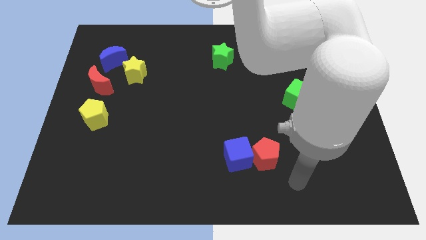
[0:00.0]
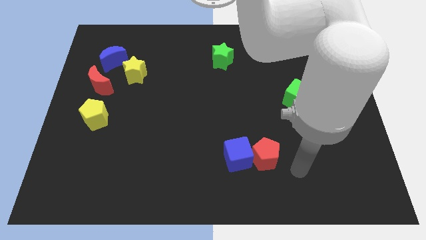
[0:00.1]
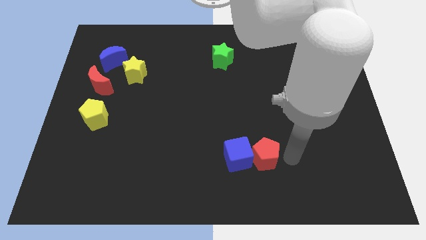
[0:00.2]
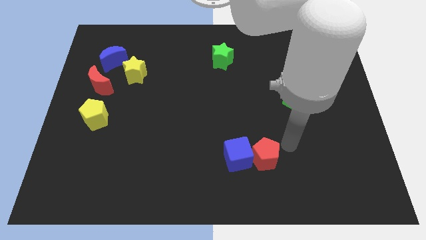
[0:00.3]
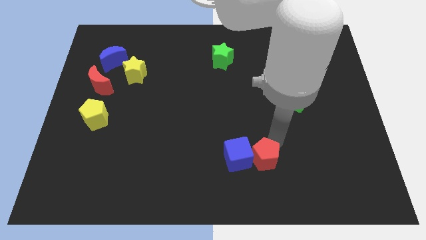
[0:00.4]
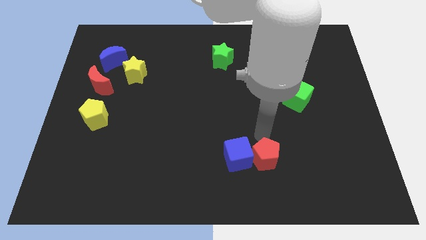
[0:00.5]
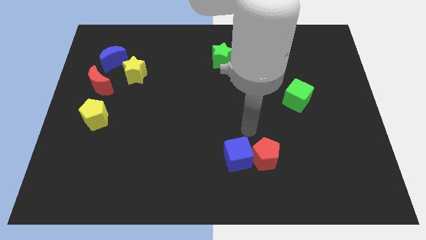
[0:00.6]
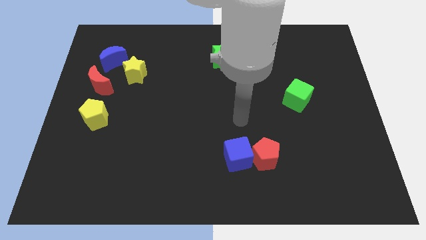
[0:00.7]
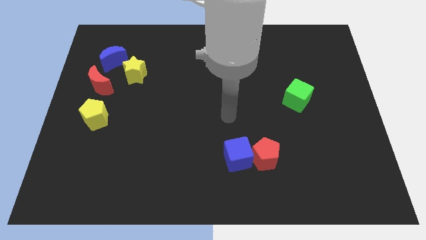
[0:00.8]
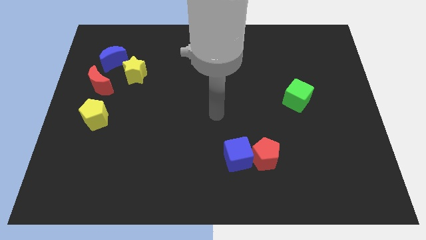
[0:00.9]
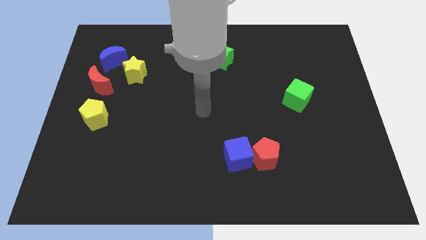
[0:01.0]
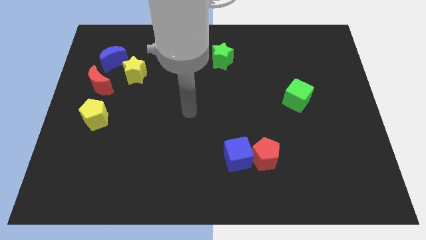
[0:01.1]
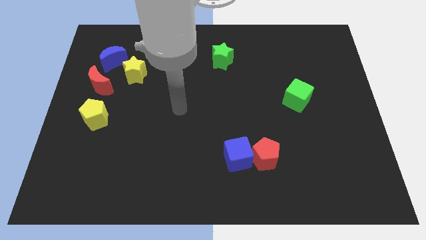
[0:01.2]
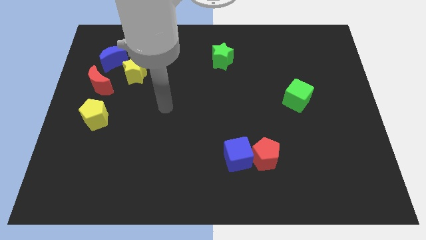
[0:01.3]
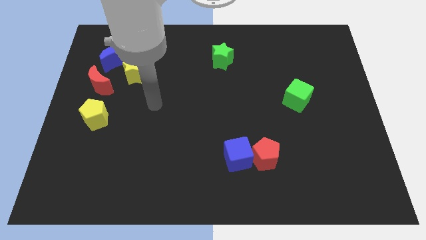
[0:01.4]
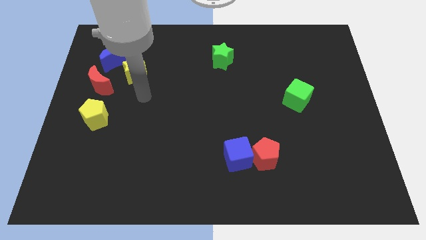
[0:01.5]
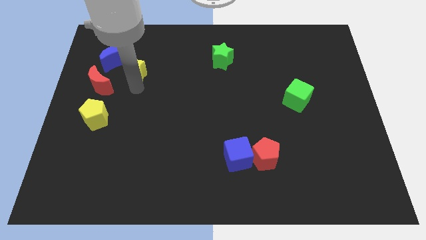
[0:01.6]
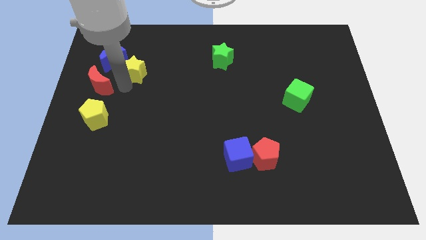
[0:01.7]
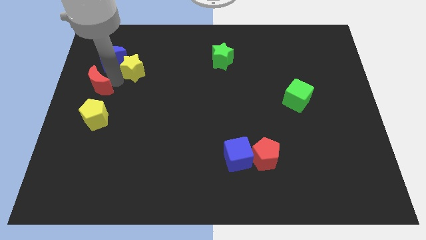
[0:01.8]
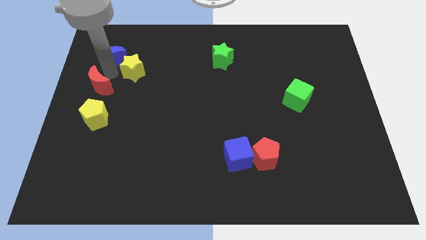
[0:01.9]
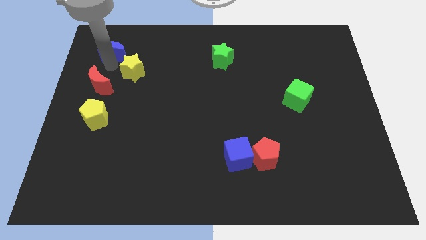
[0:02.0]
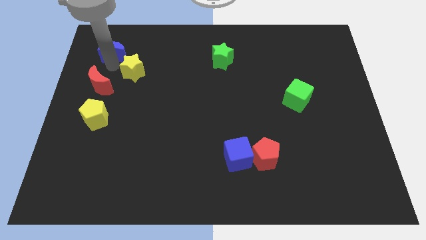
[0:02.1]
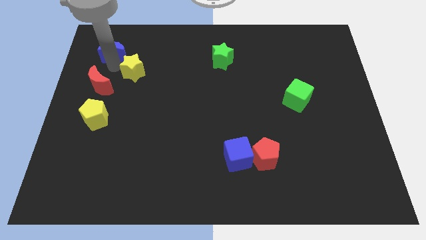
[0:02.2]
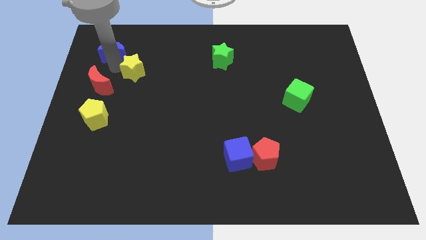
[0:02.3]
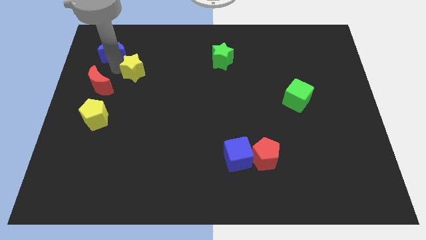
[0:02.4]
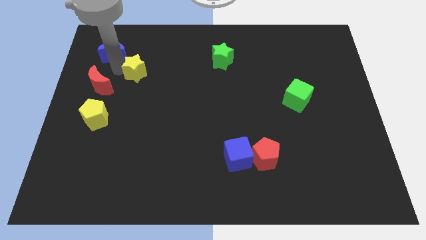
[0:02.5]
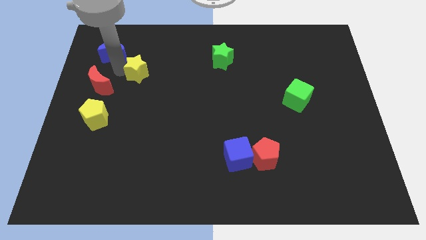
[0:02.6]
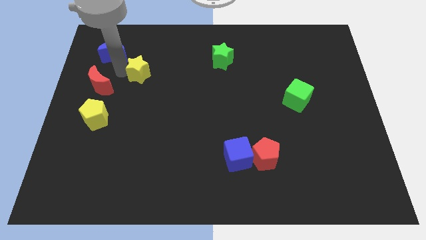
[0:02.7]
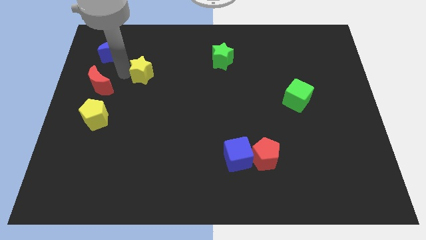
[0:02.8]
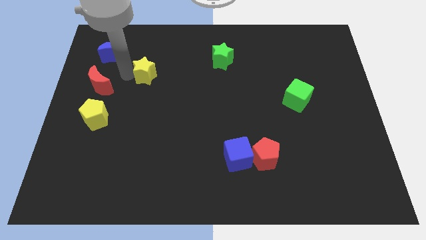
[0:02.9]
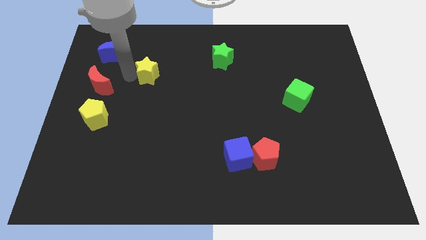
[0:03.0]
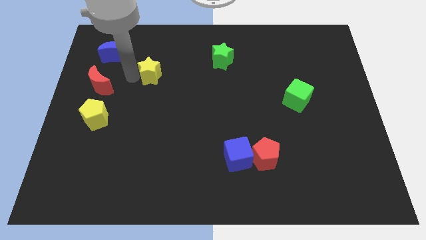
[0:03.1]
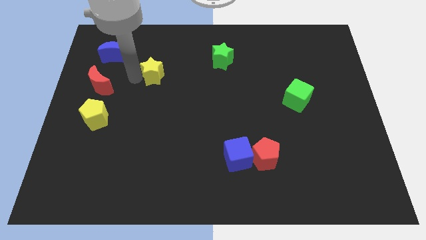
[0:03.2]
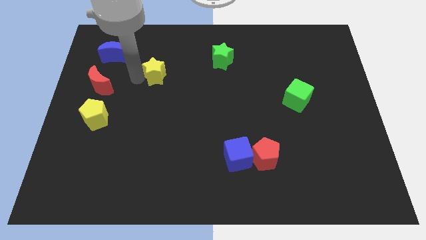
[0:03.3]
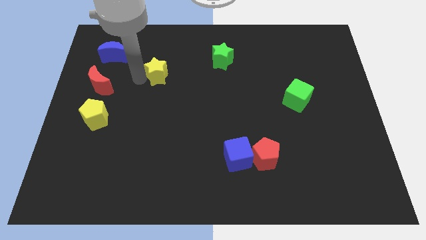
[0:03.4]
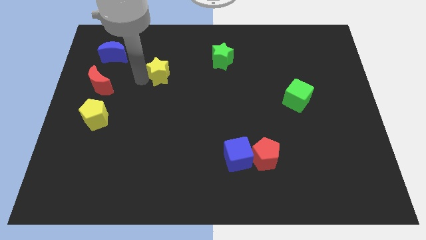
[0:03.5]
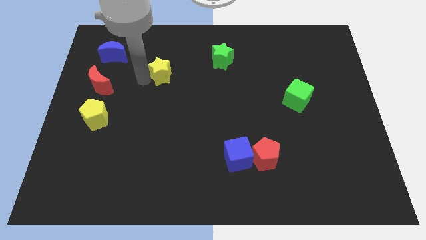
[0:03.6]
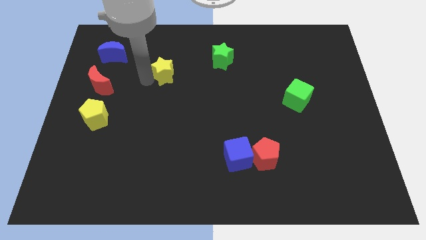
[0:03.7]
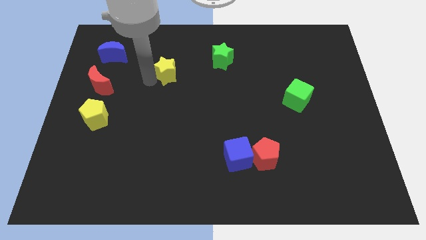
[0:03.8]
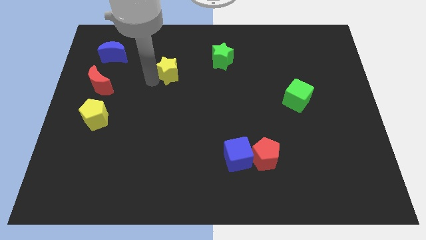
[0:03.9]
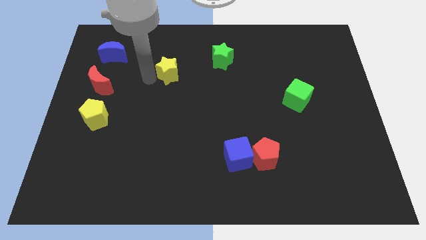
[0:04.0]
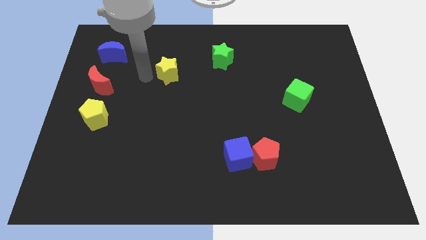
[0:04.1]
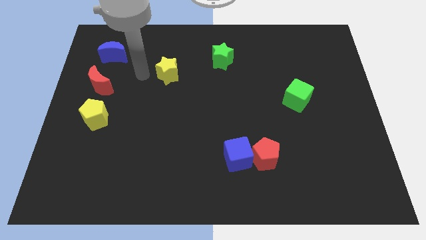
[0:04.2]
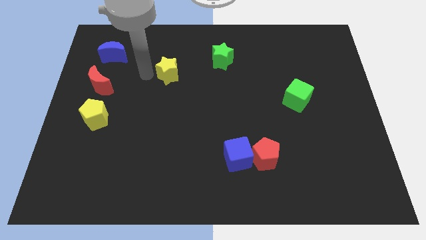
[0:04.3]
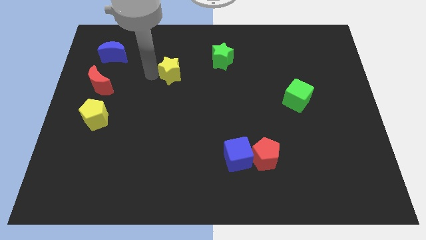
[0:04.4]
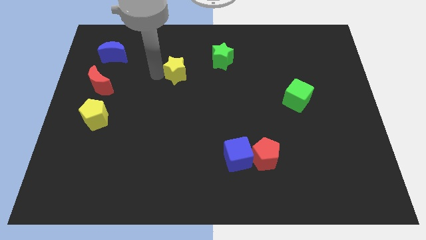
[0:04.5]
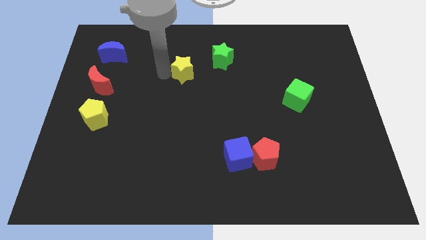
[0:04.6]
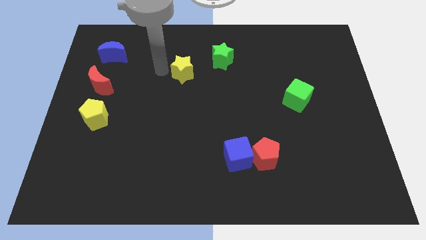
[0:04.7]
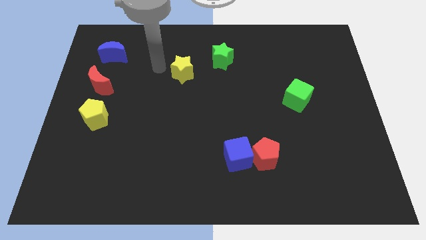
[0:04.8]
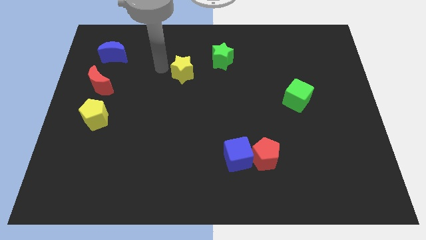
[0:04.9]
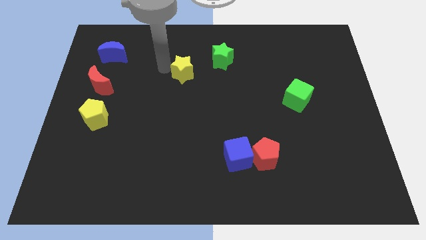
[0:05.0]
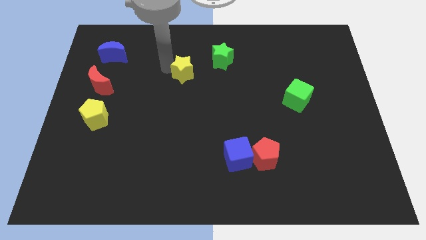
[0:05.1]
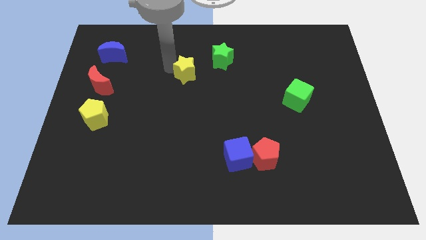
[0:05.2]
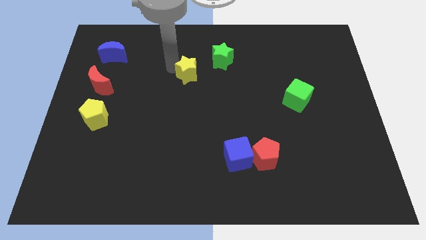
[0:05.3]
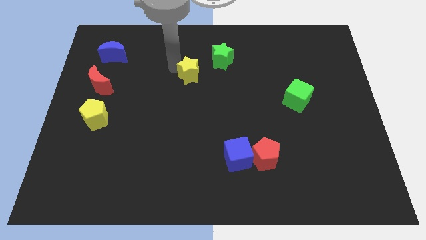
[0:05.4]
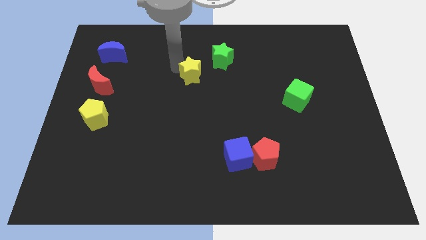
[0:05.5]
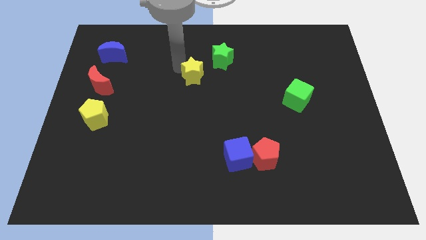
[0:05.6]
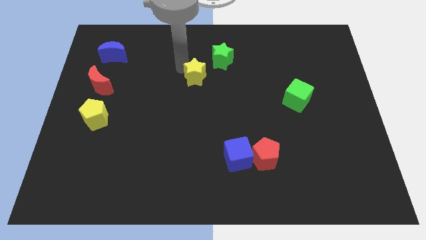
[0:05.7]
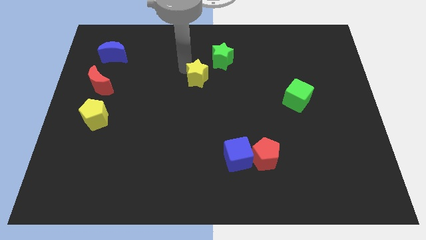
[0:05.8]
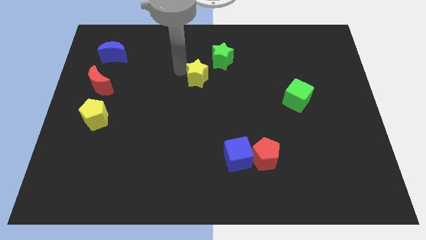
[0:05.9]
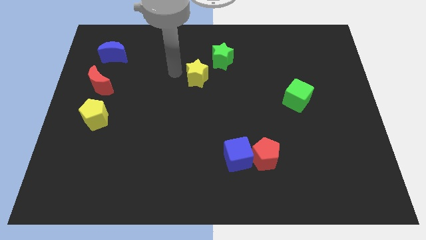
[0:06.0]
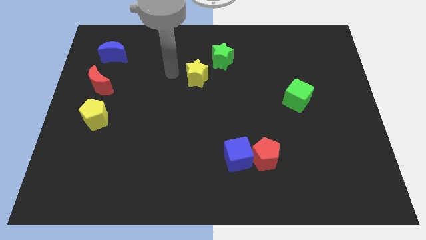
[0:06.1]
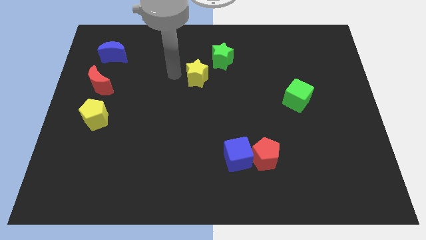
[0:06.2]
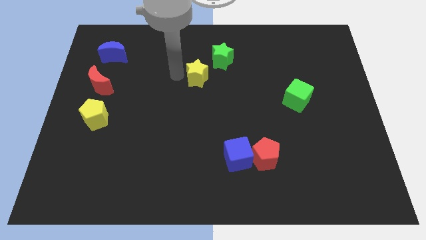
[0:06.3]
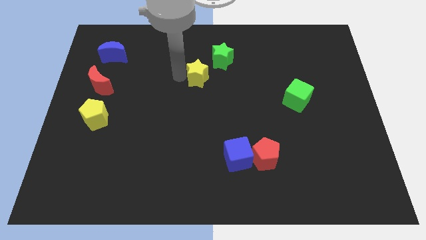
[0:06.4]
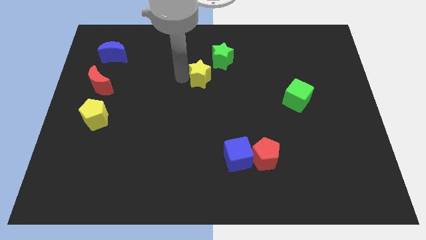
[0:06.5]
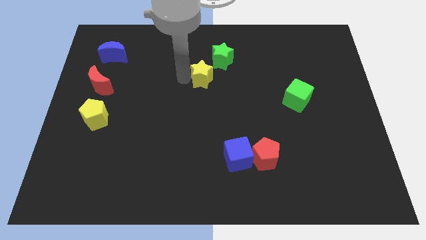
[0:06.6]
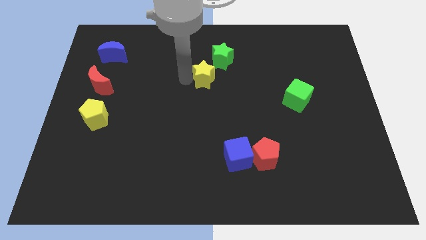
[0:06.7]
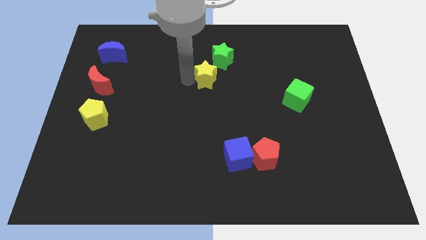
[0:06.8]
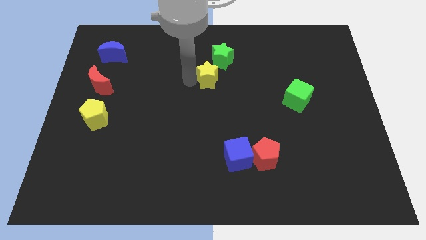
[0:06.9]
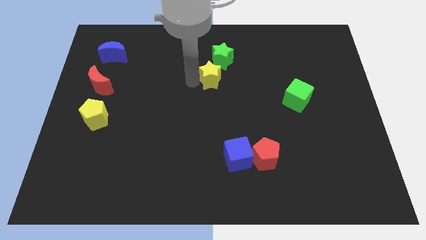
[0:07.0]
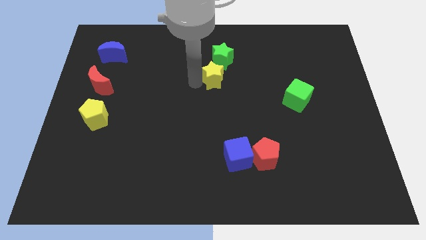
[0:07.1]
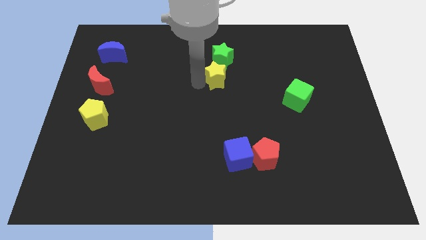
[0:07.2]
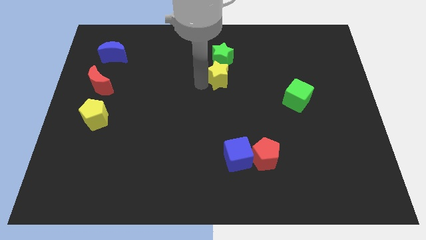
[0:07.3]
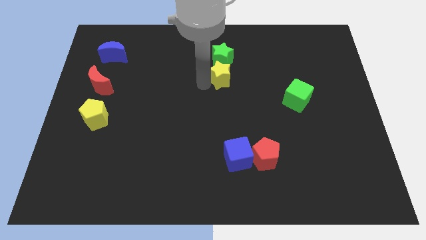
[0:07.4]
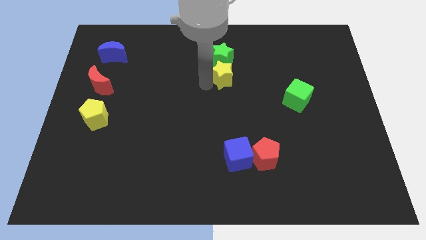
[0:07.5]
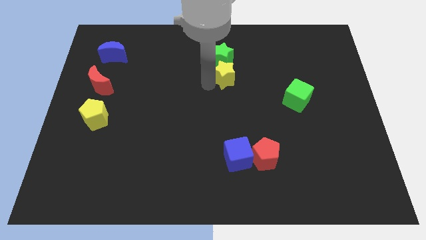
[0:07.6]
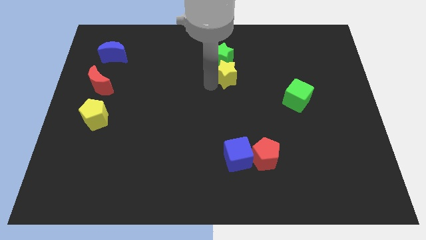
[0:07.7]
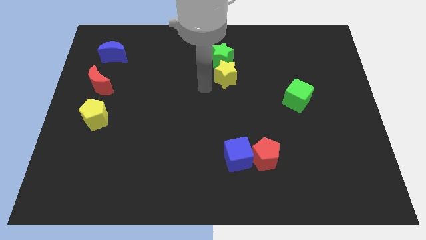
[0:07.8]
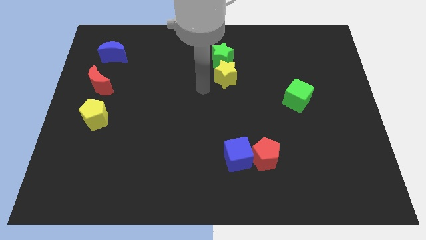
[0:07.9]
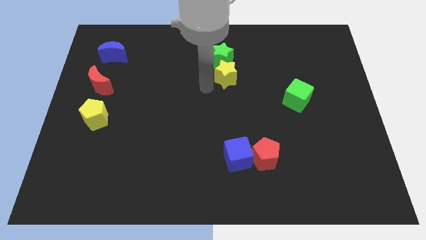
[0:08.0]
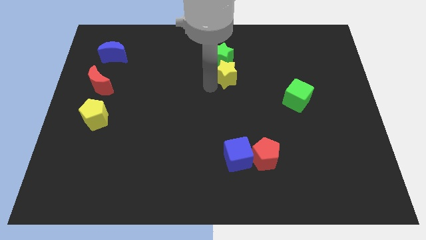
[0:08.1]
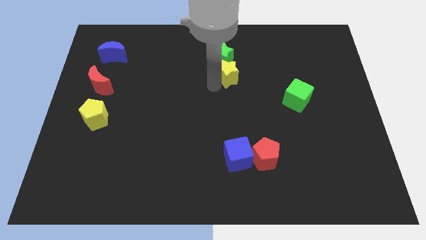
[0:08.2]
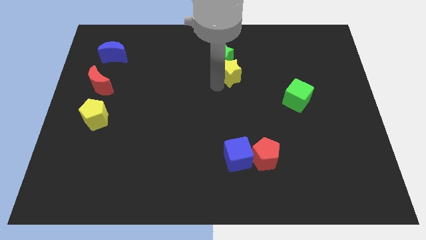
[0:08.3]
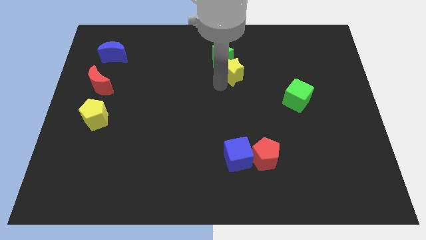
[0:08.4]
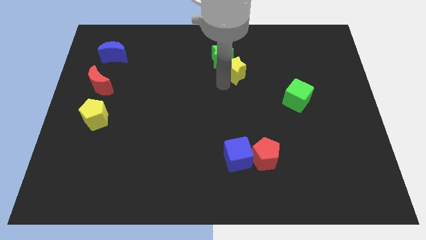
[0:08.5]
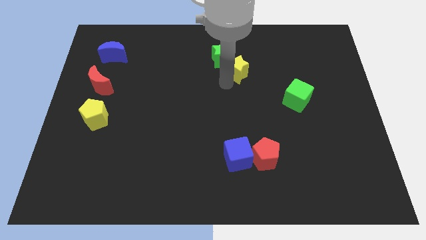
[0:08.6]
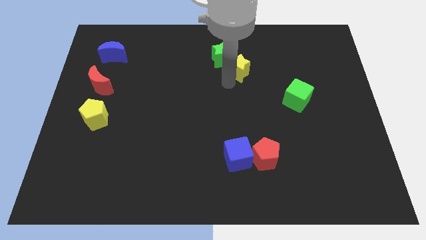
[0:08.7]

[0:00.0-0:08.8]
slide the yellow star to the right side of the green star
